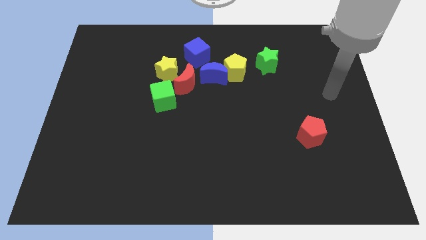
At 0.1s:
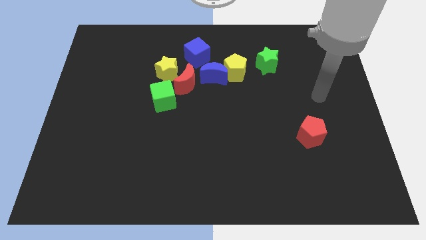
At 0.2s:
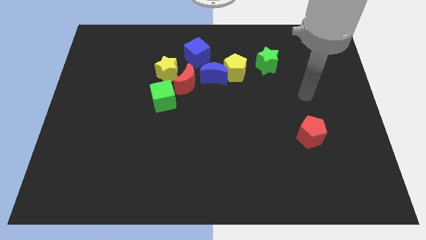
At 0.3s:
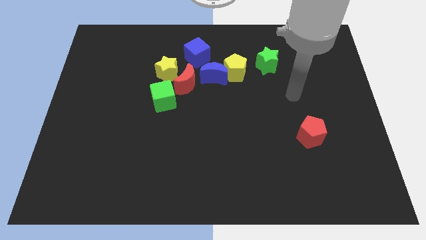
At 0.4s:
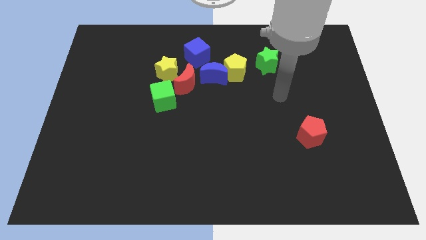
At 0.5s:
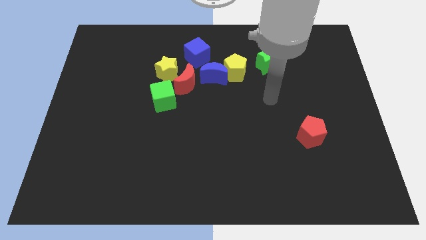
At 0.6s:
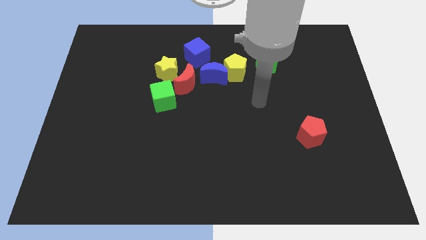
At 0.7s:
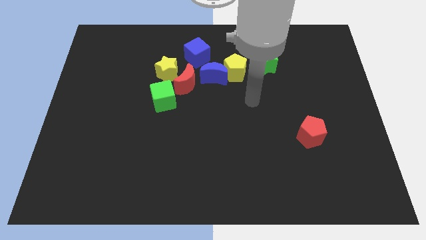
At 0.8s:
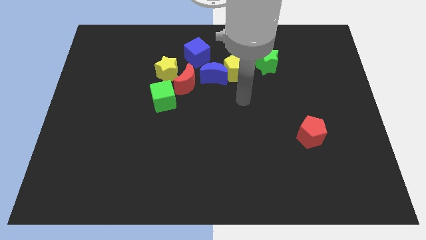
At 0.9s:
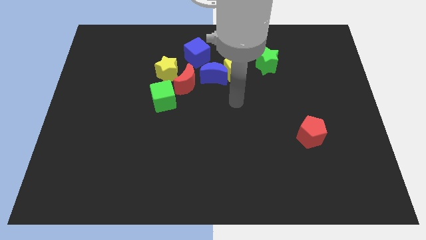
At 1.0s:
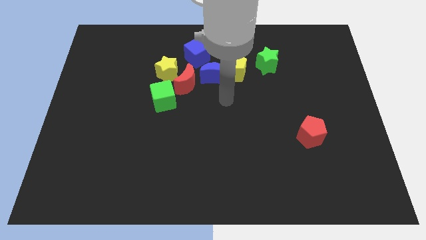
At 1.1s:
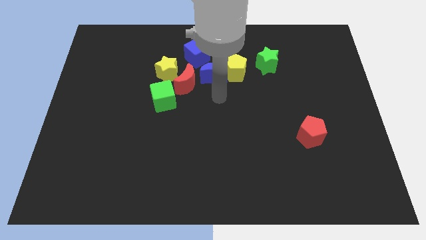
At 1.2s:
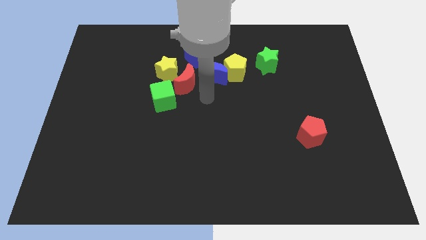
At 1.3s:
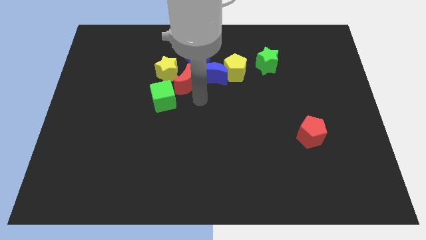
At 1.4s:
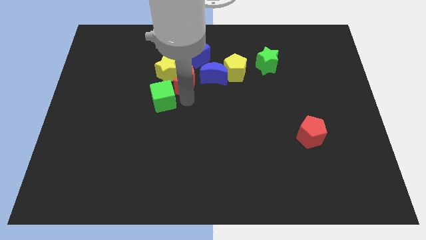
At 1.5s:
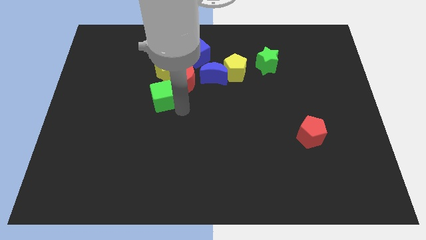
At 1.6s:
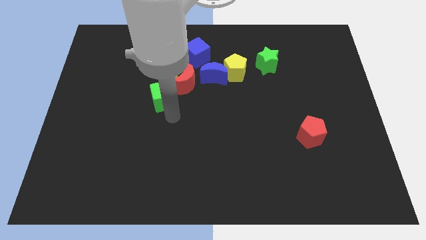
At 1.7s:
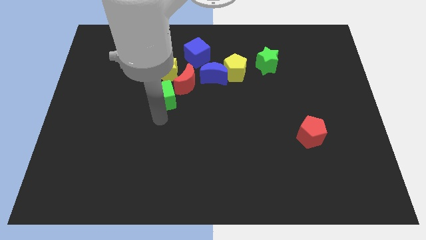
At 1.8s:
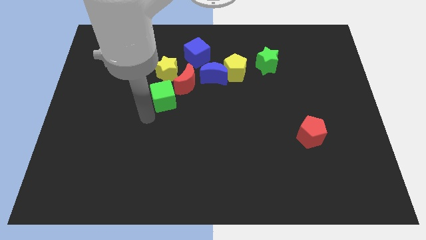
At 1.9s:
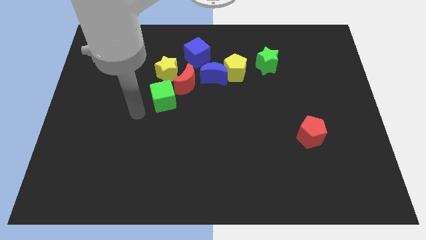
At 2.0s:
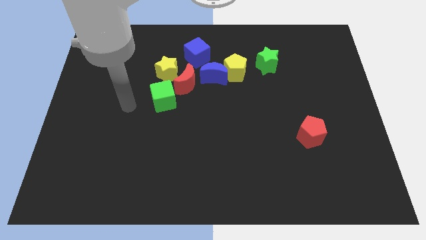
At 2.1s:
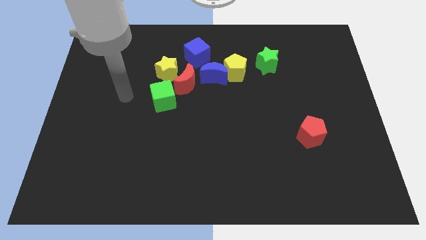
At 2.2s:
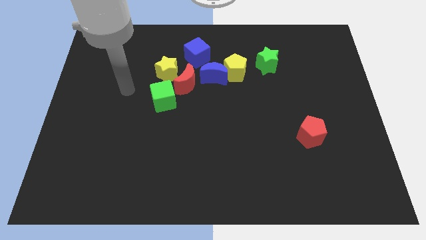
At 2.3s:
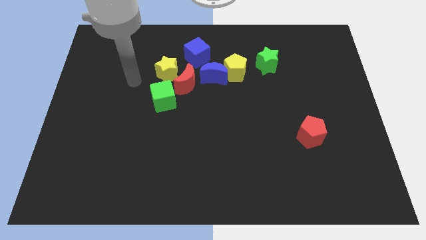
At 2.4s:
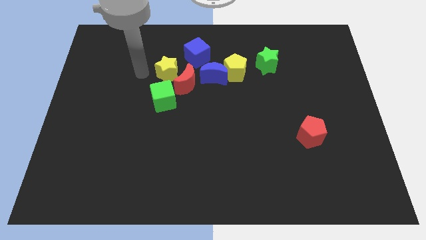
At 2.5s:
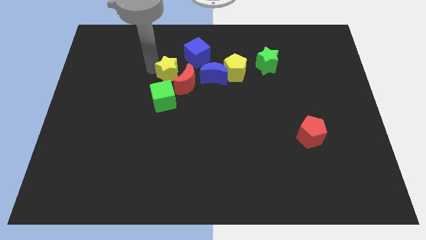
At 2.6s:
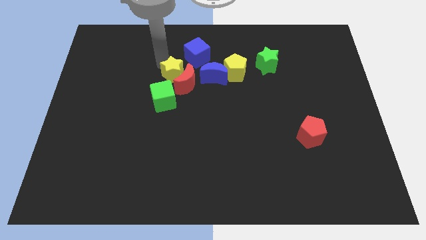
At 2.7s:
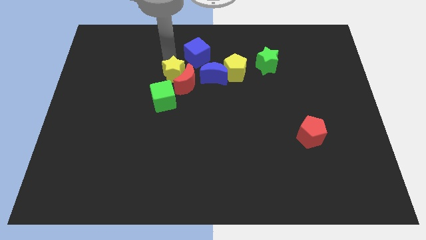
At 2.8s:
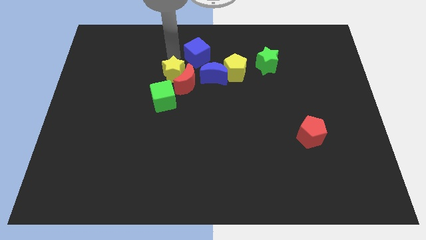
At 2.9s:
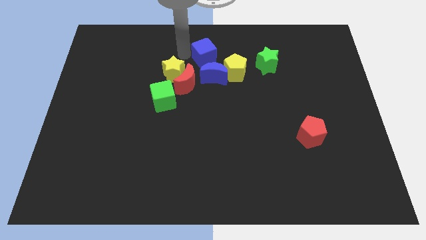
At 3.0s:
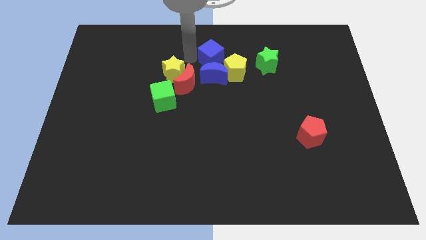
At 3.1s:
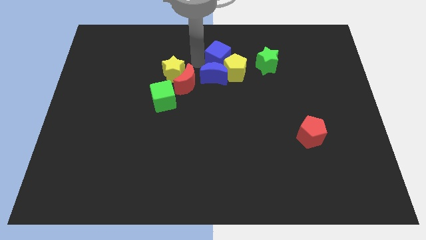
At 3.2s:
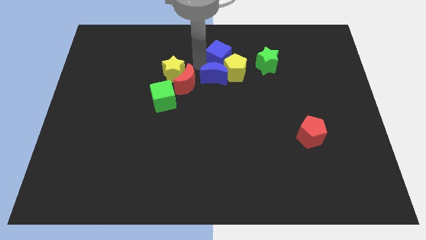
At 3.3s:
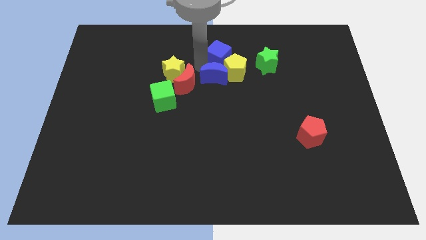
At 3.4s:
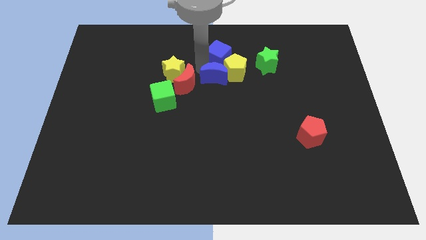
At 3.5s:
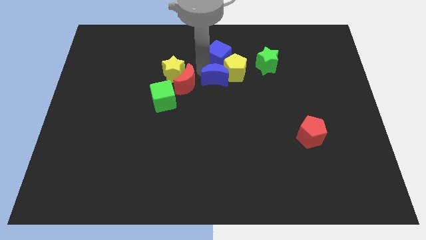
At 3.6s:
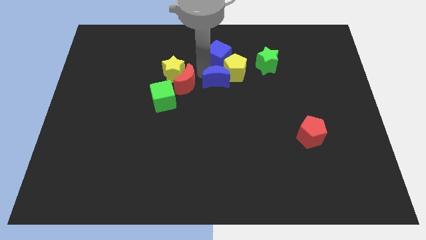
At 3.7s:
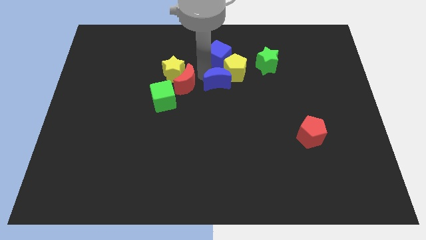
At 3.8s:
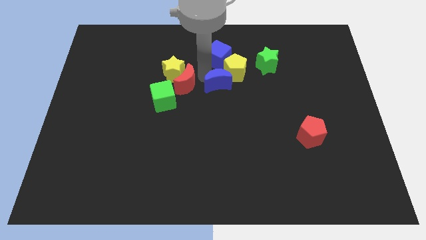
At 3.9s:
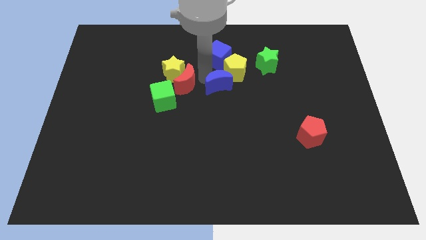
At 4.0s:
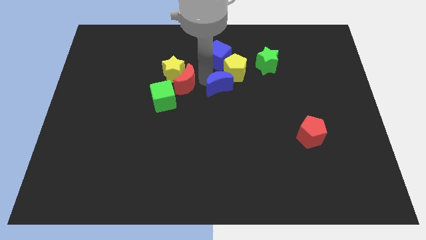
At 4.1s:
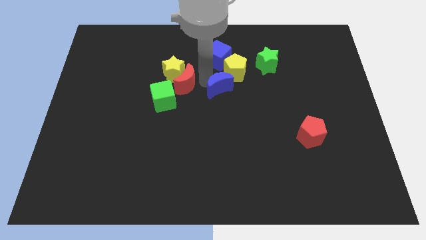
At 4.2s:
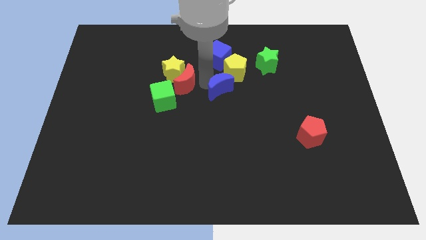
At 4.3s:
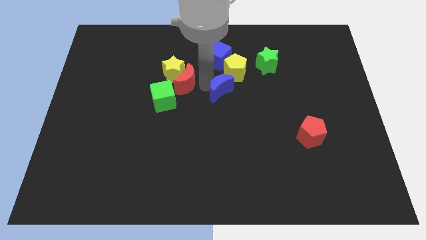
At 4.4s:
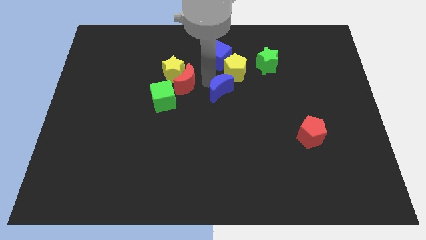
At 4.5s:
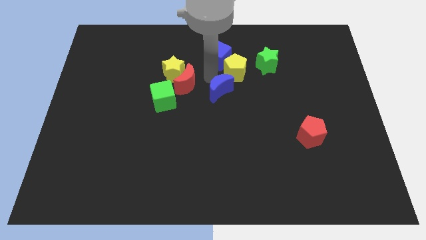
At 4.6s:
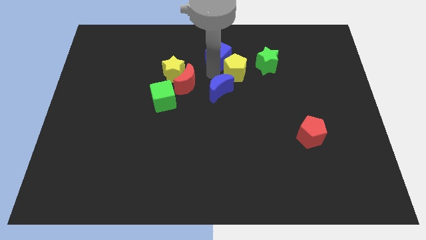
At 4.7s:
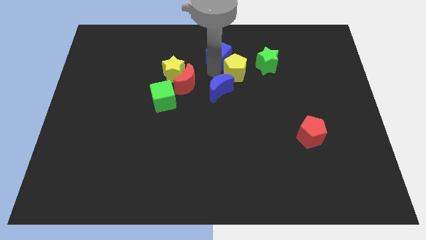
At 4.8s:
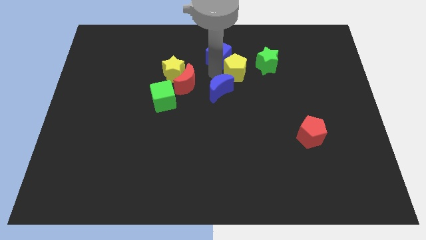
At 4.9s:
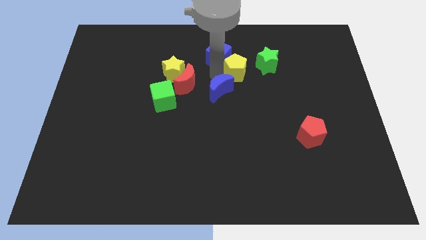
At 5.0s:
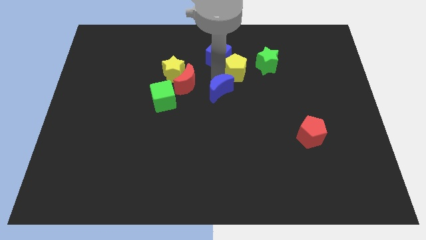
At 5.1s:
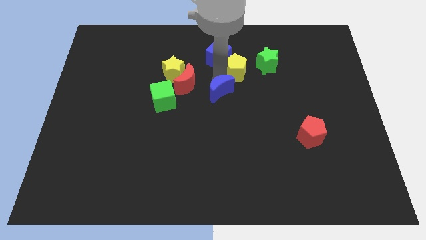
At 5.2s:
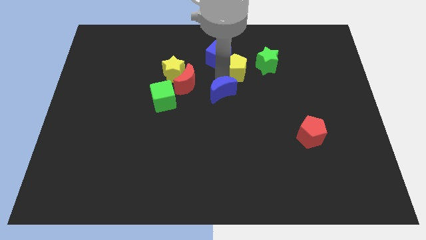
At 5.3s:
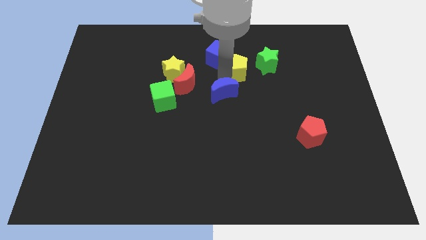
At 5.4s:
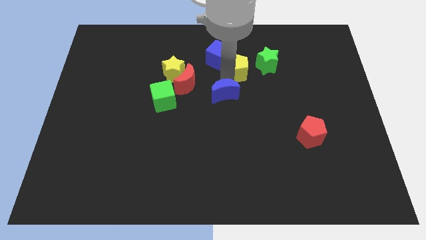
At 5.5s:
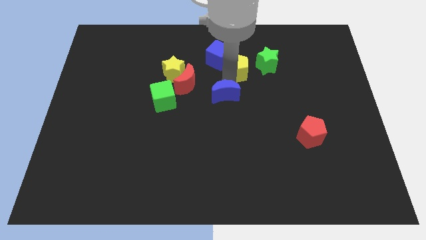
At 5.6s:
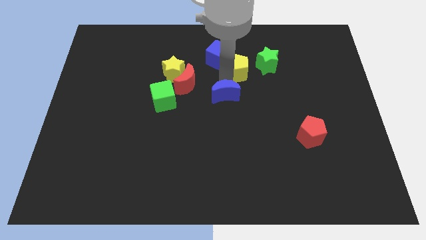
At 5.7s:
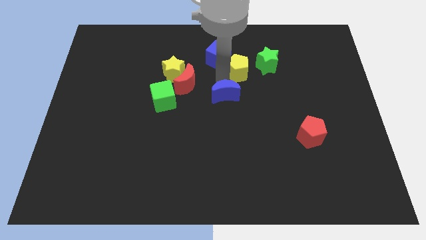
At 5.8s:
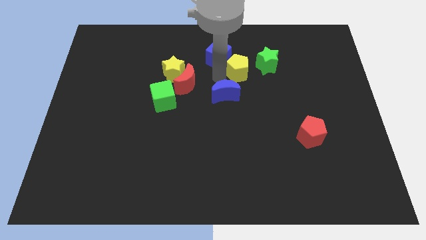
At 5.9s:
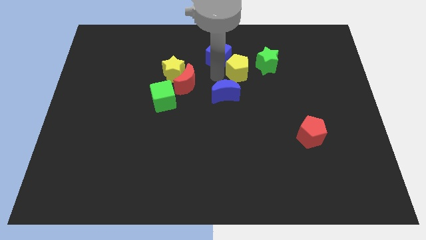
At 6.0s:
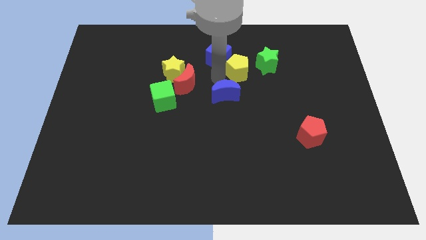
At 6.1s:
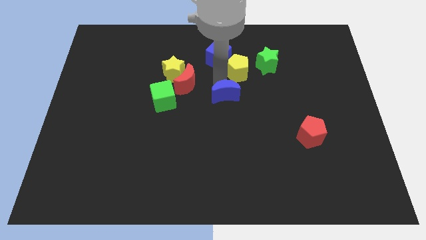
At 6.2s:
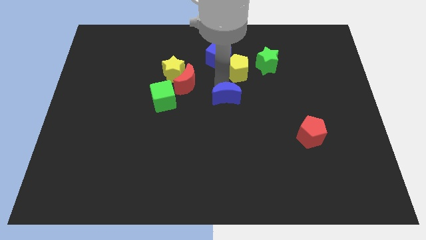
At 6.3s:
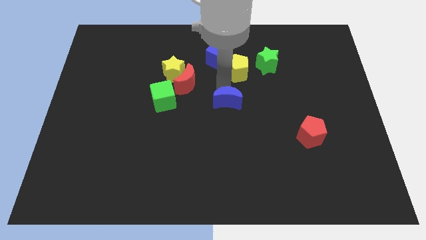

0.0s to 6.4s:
separate the blue moon from the group of blocks

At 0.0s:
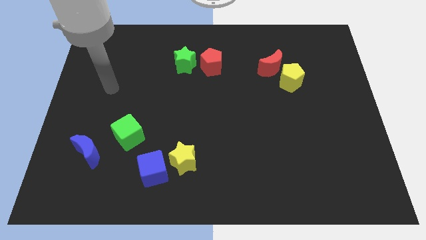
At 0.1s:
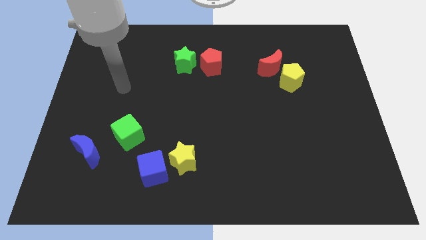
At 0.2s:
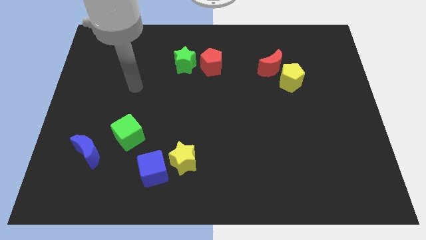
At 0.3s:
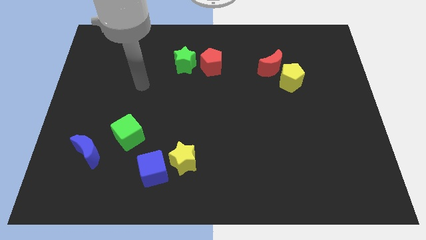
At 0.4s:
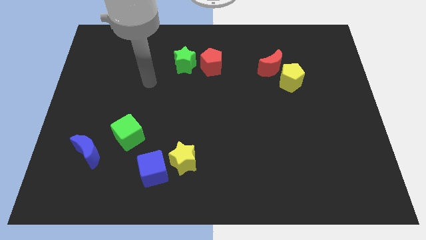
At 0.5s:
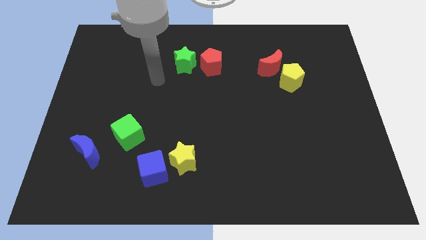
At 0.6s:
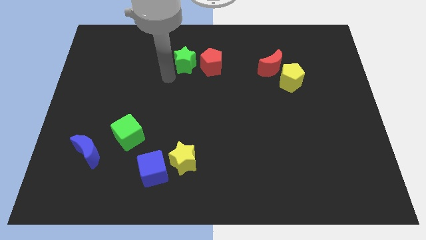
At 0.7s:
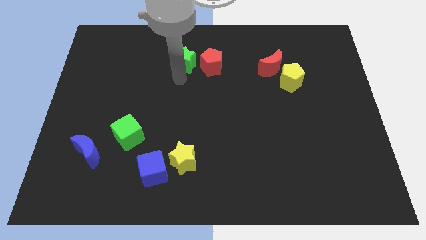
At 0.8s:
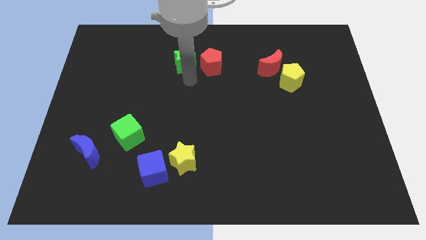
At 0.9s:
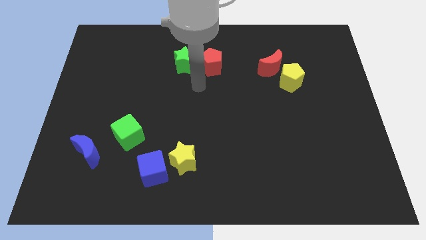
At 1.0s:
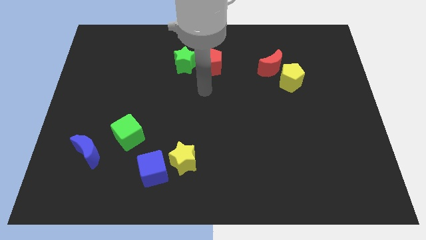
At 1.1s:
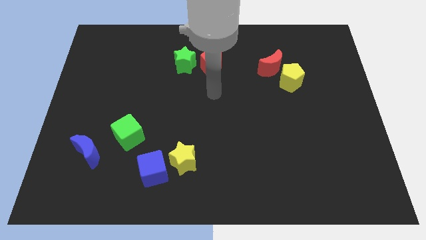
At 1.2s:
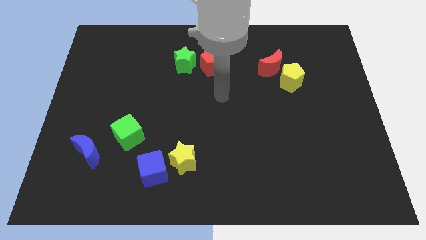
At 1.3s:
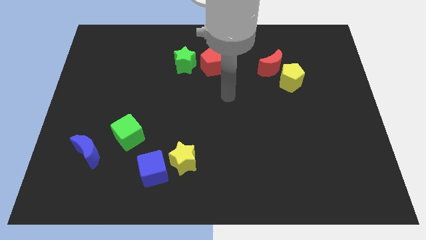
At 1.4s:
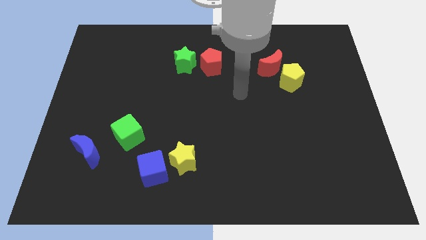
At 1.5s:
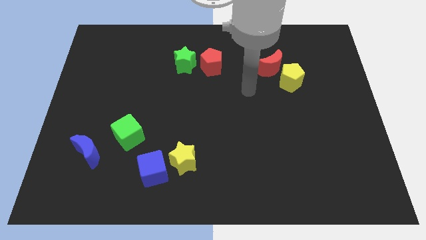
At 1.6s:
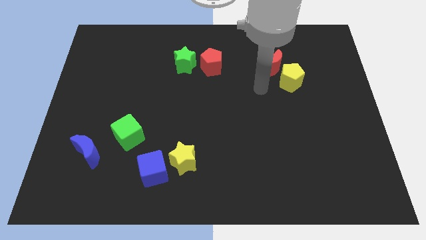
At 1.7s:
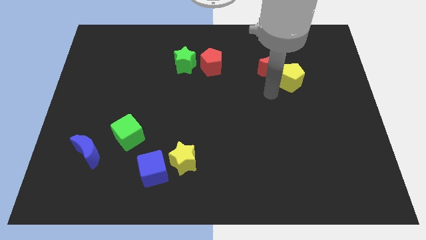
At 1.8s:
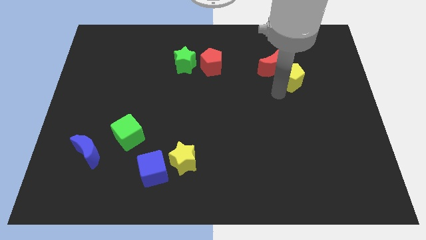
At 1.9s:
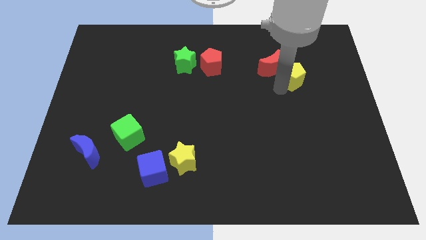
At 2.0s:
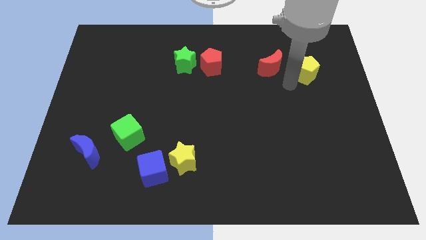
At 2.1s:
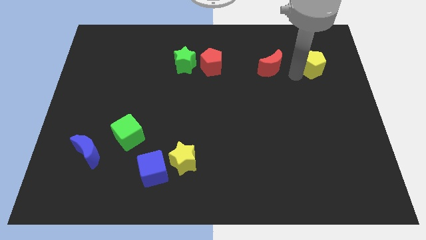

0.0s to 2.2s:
separate the red moon from the yellow pentagon

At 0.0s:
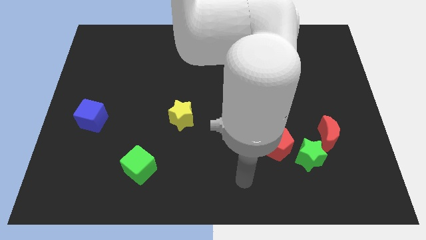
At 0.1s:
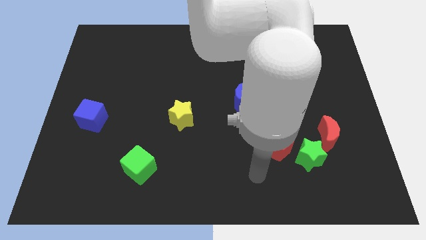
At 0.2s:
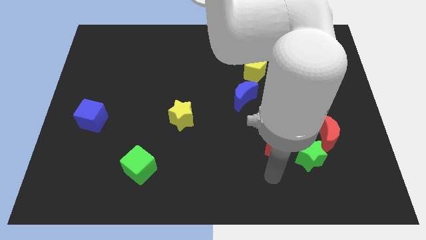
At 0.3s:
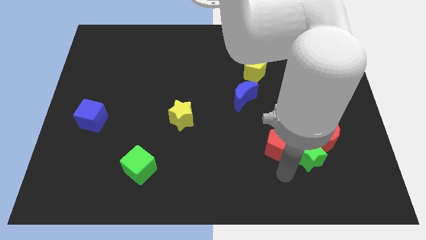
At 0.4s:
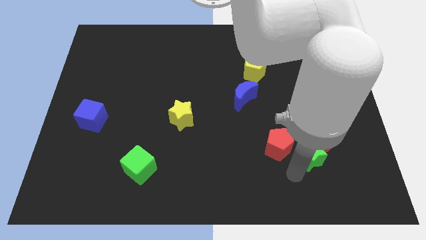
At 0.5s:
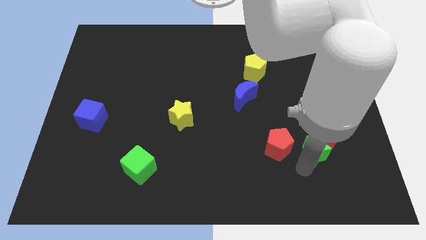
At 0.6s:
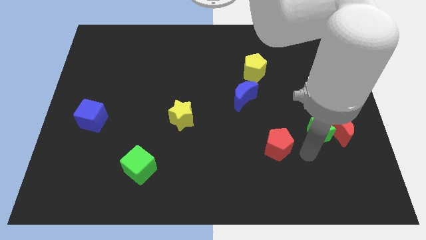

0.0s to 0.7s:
pull the red pentagon apart from the green star
